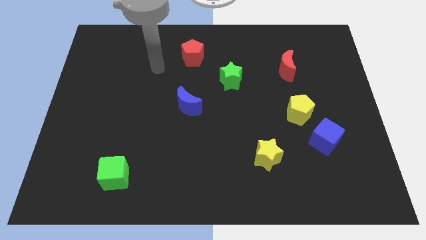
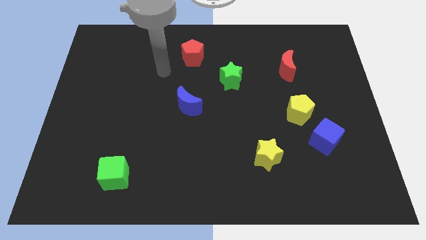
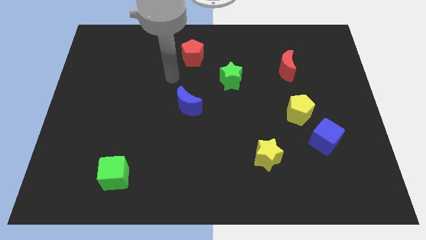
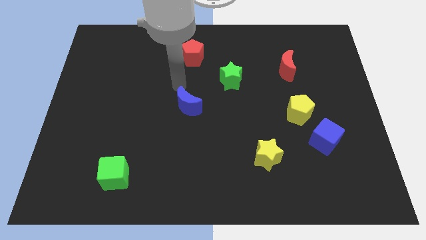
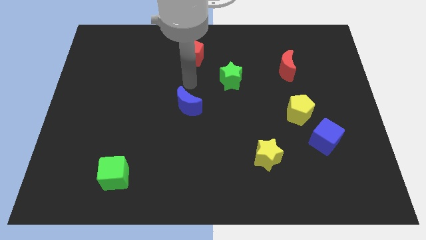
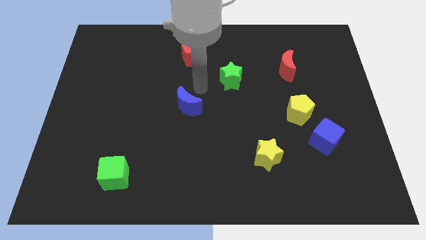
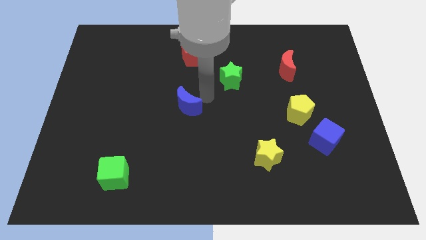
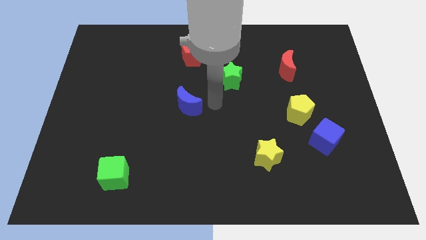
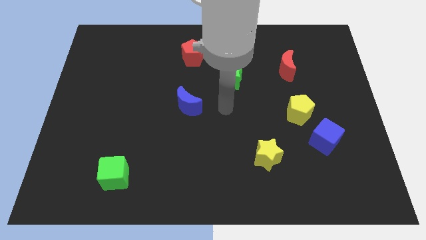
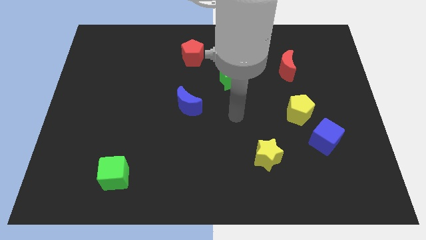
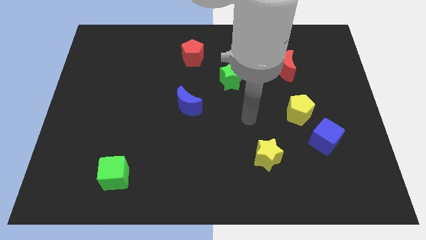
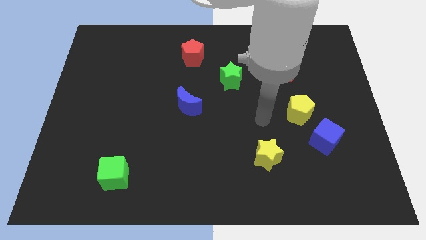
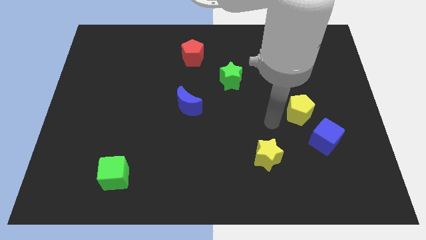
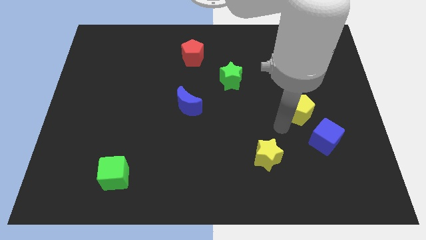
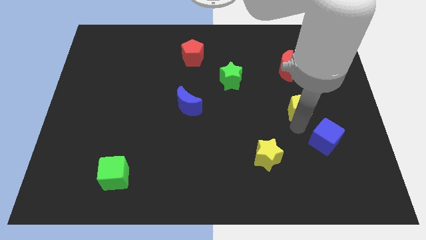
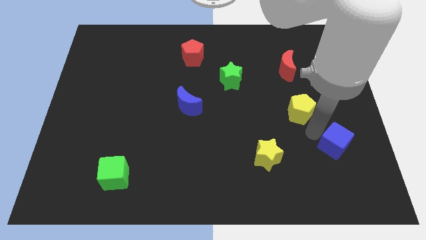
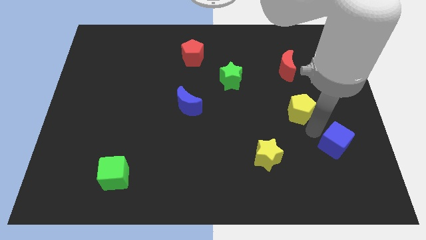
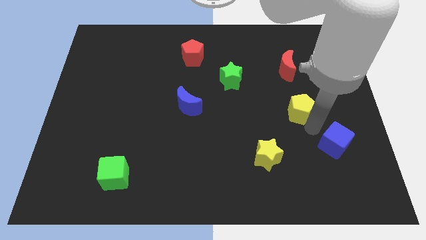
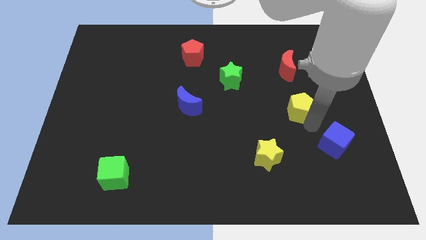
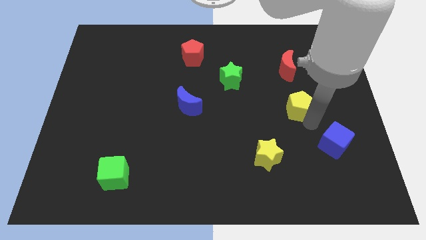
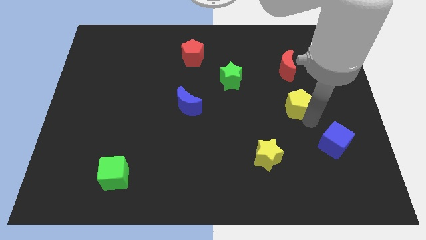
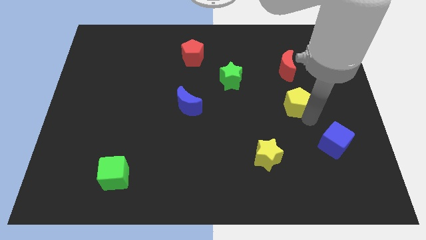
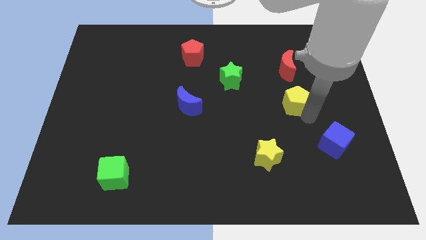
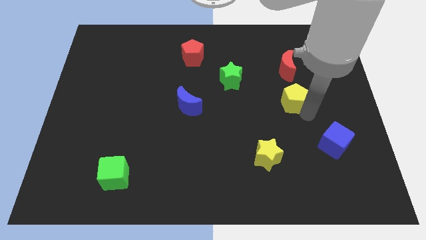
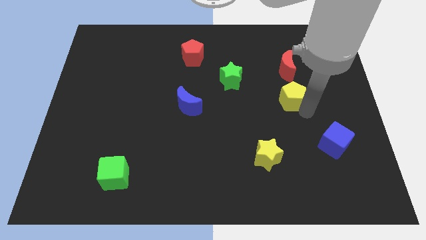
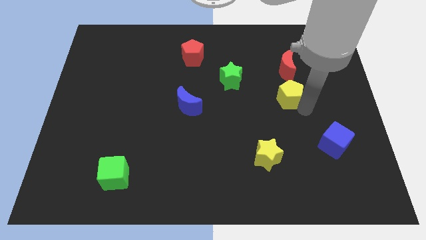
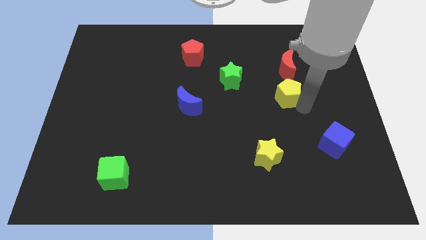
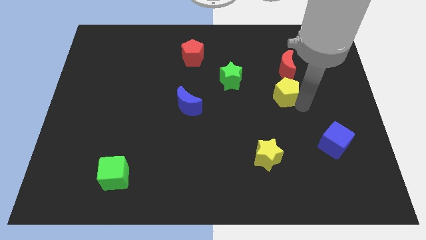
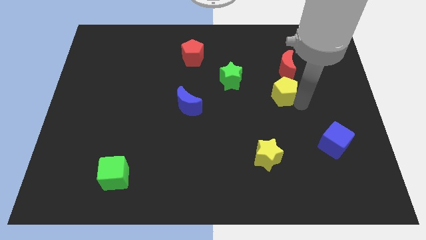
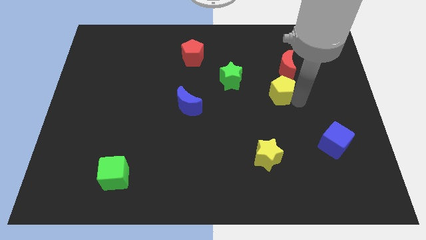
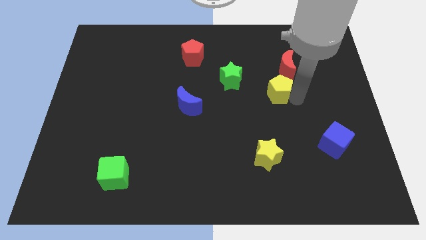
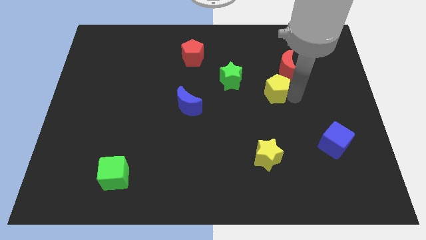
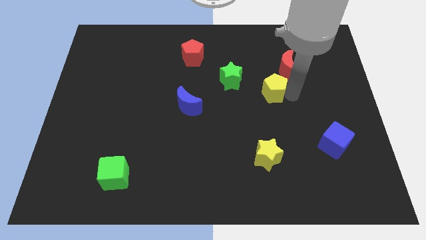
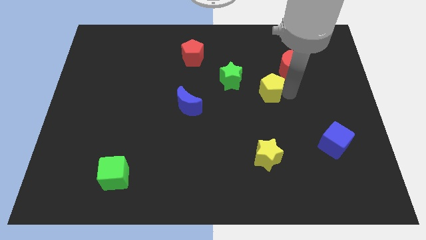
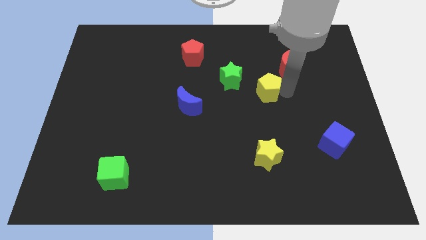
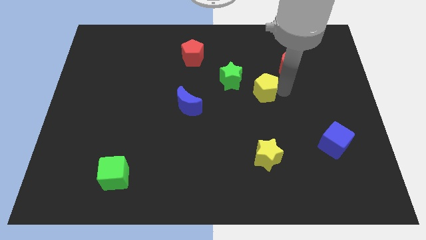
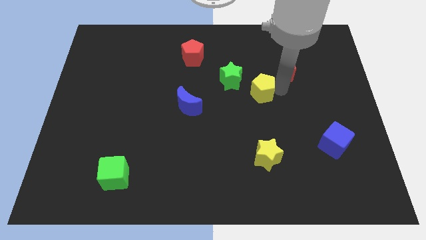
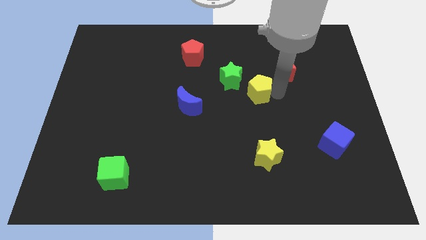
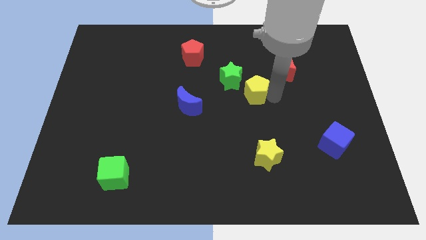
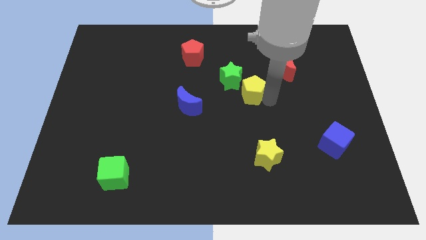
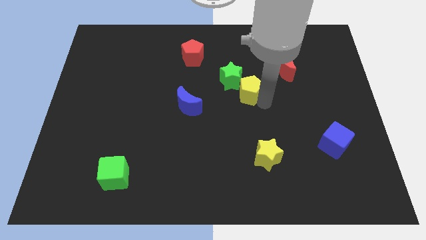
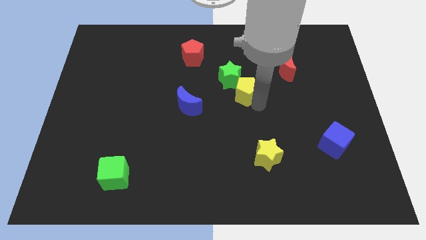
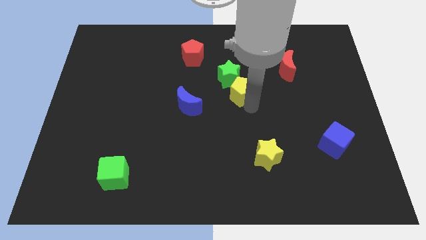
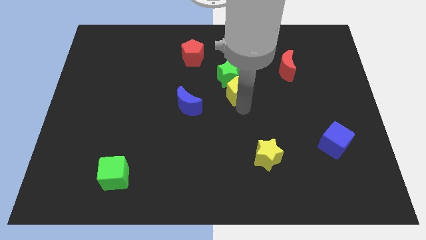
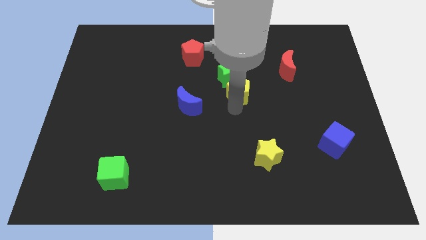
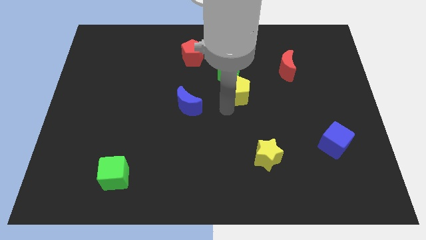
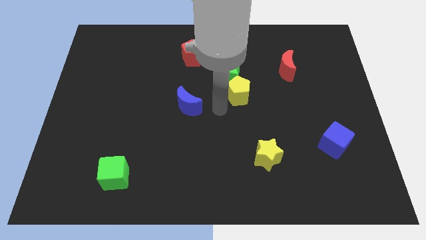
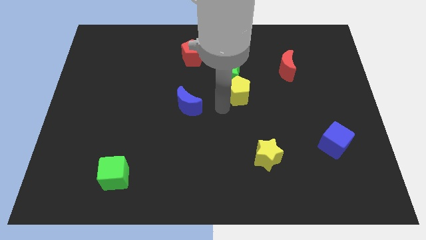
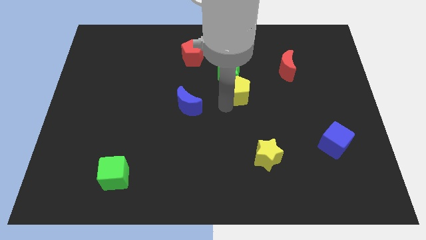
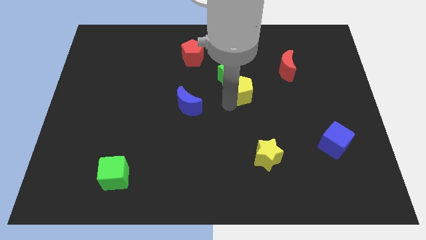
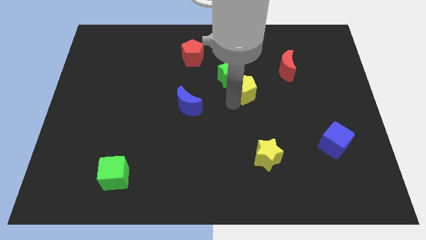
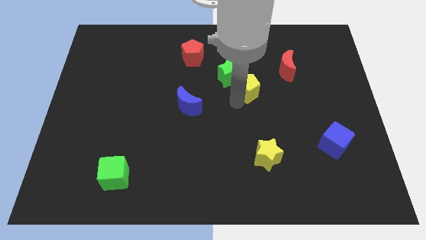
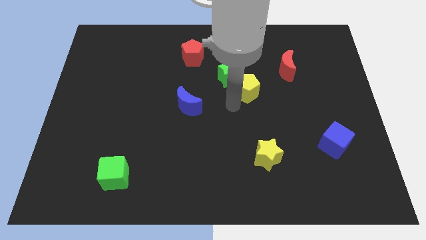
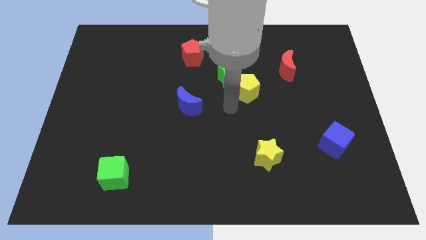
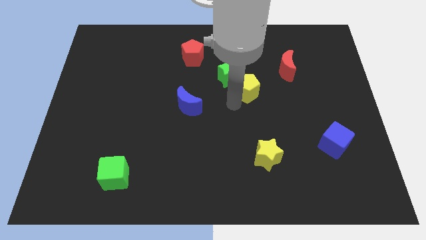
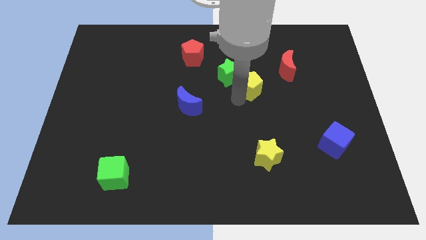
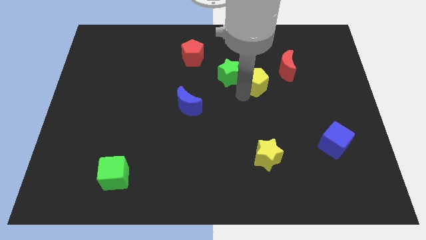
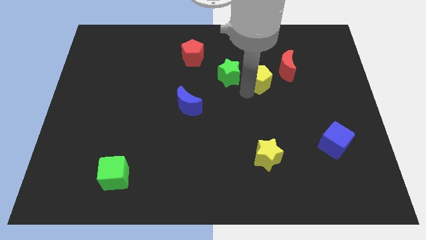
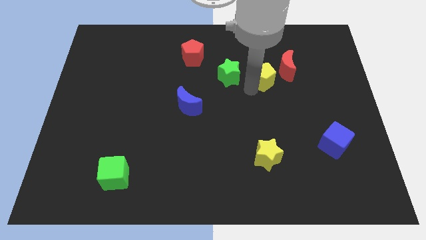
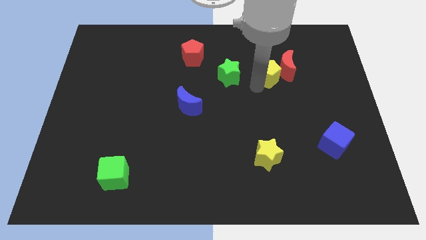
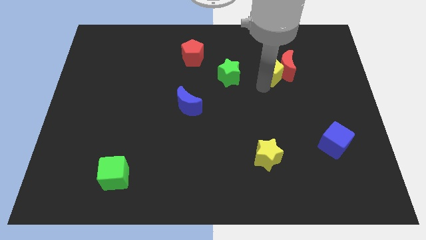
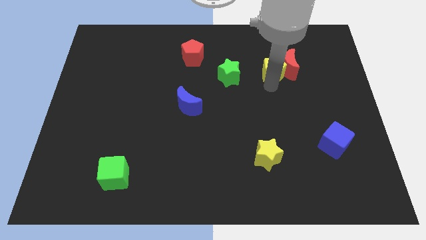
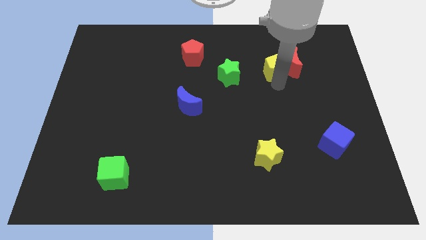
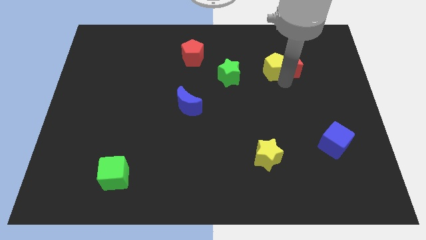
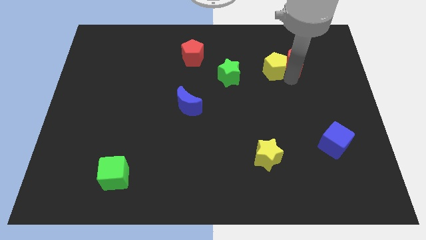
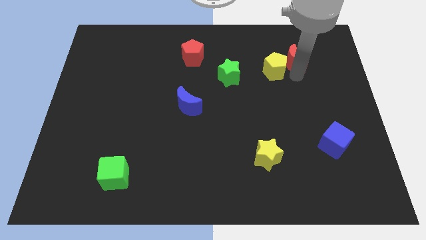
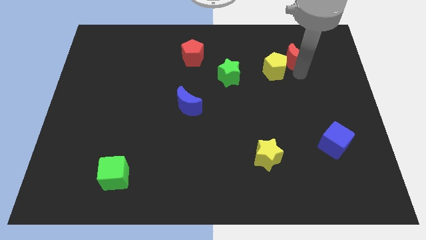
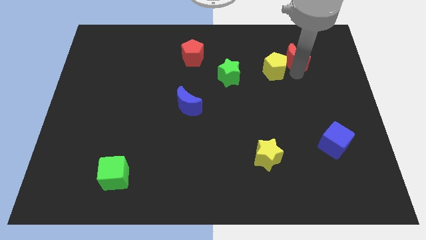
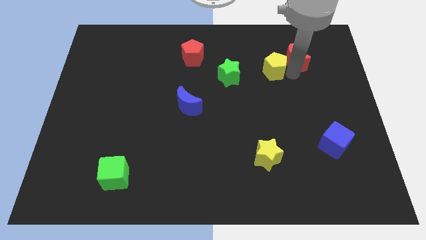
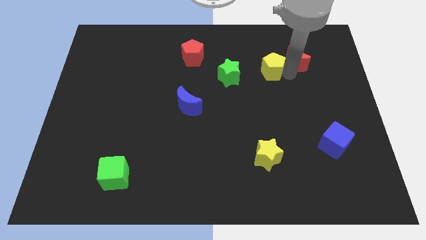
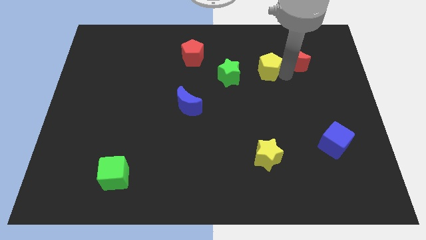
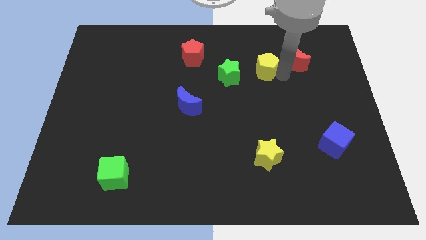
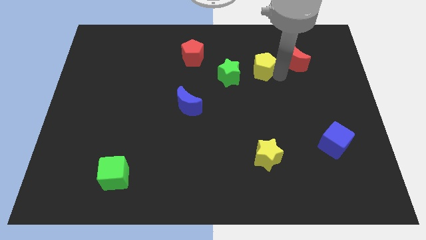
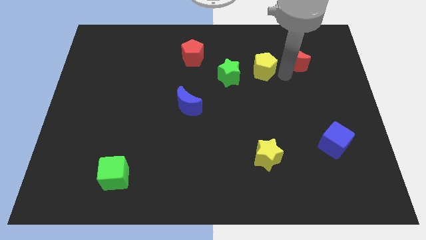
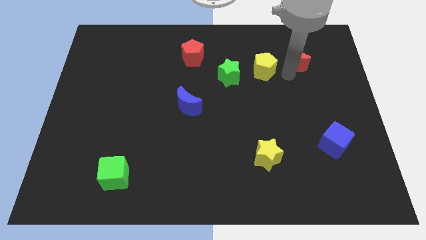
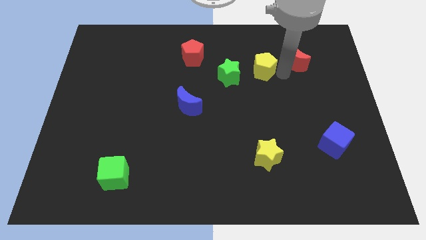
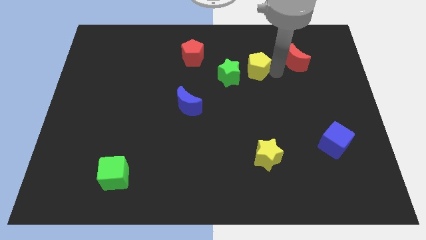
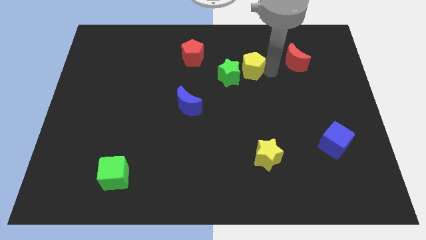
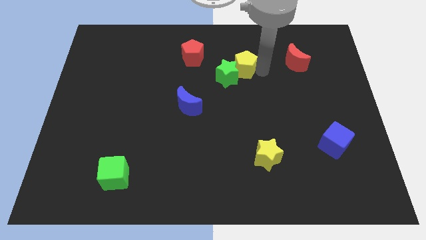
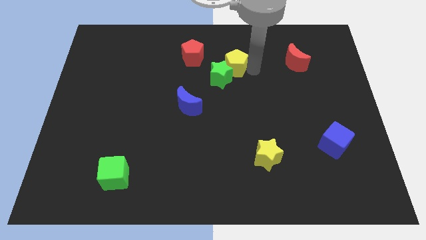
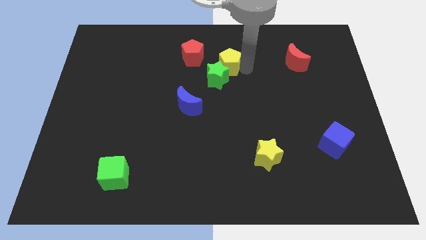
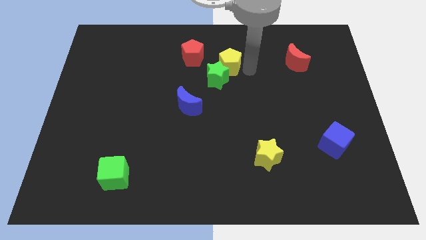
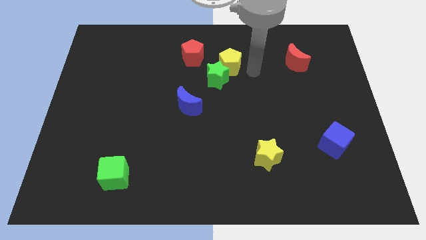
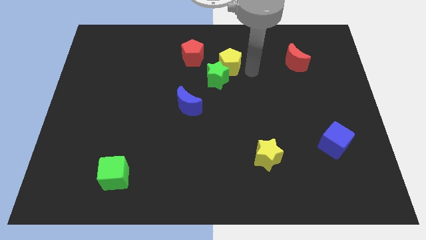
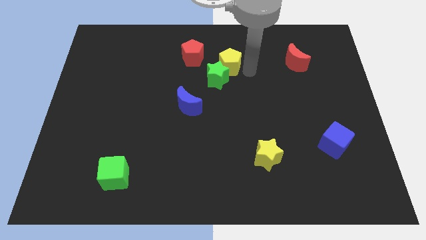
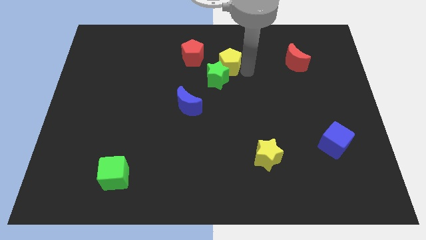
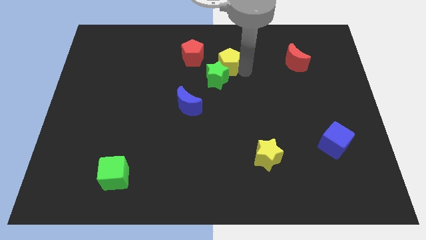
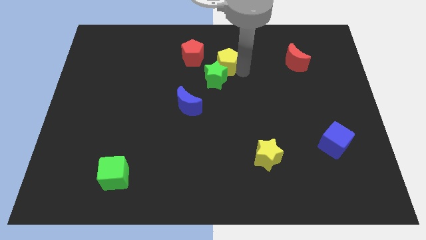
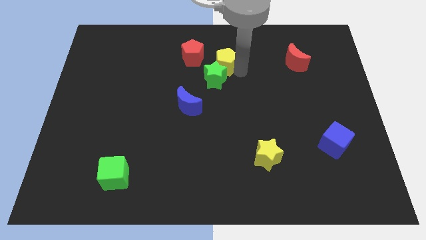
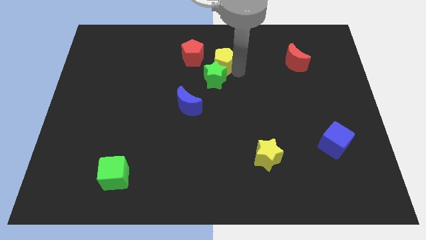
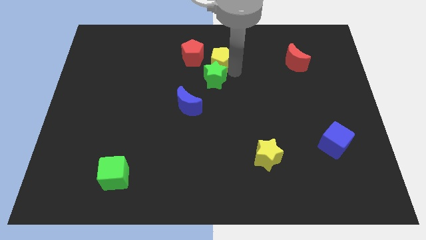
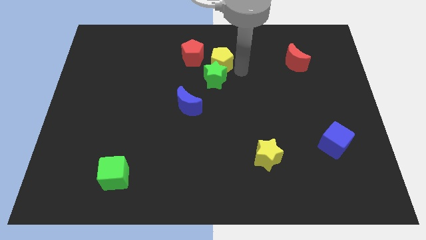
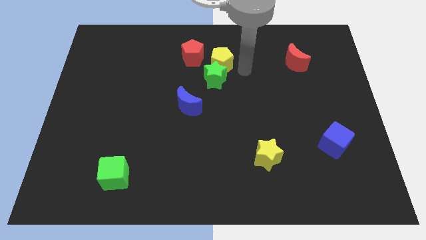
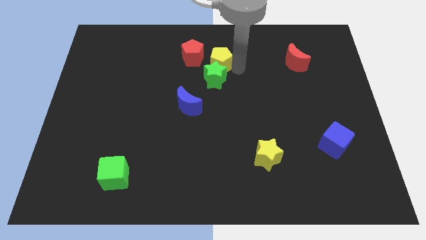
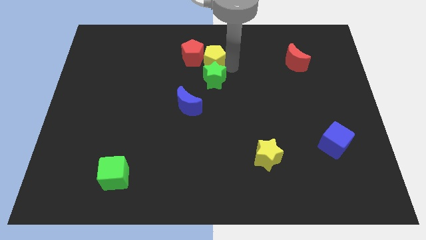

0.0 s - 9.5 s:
push the yellow pentagon next to the red pentagon
